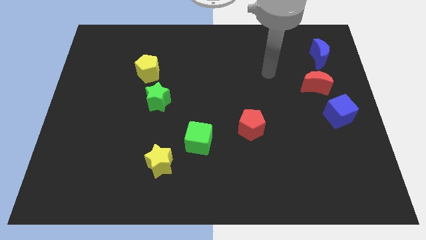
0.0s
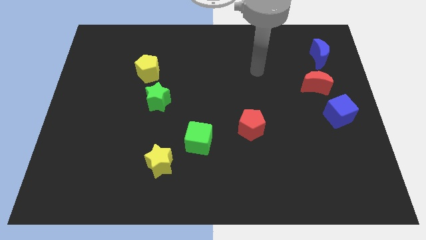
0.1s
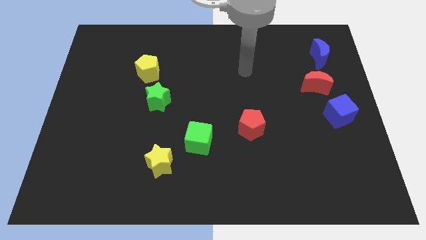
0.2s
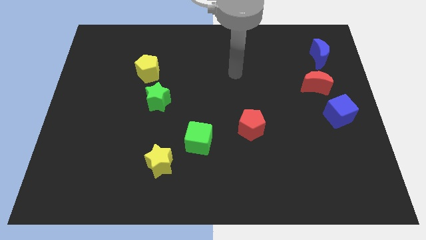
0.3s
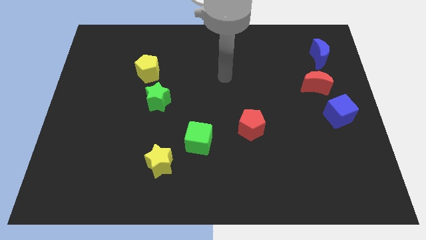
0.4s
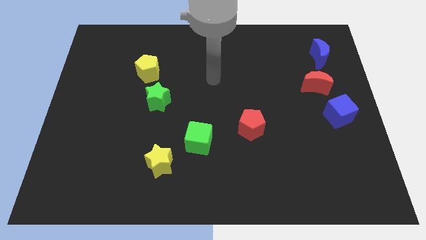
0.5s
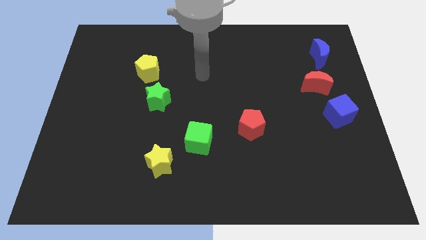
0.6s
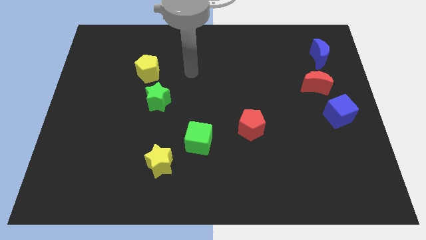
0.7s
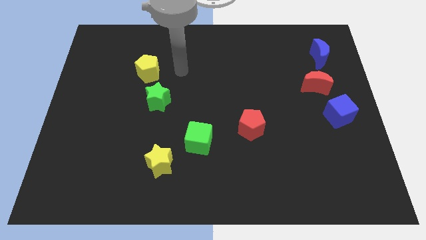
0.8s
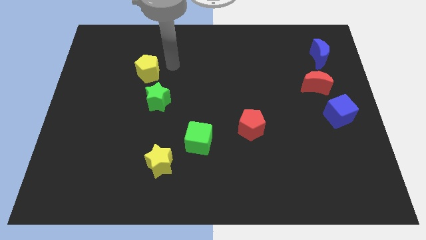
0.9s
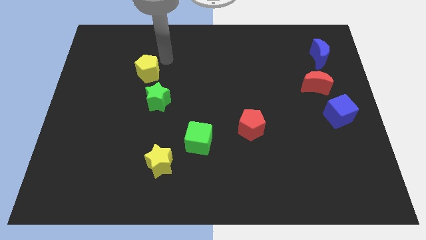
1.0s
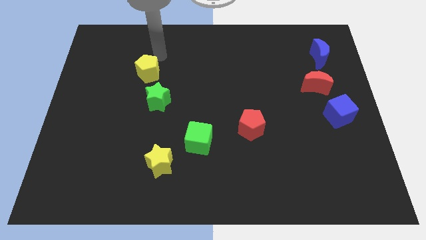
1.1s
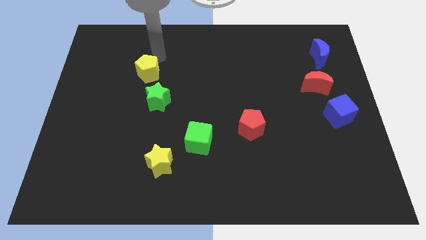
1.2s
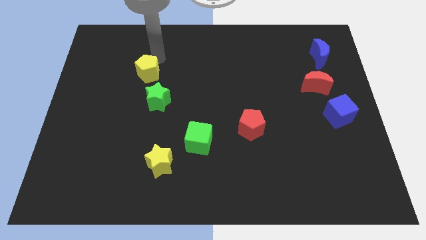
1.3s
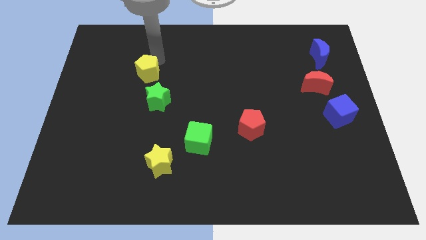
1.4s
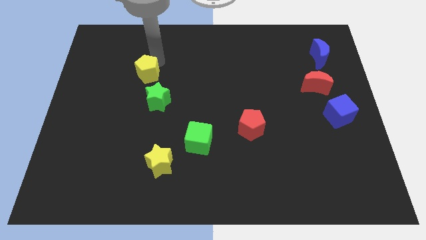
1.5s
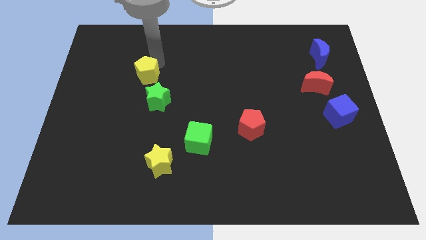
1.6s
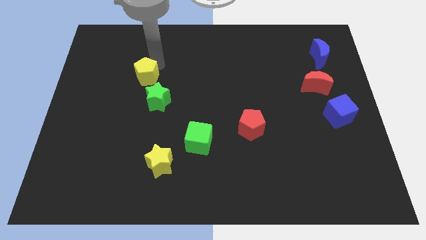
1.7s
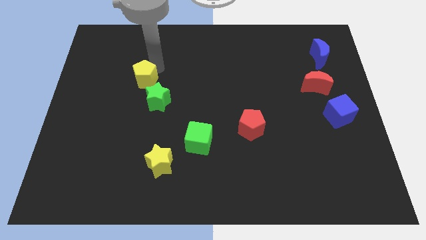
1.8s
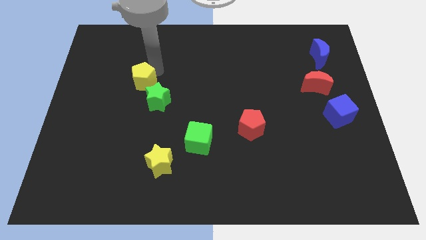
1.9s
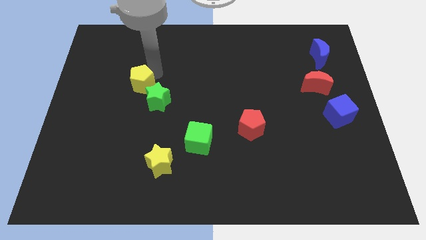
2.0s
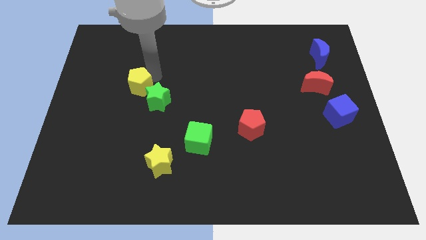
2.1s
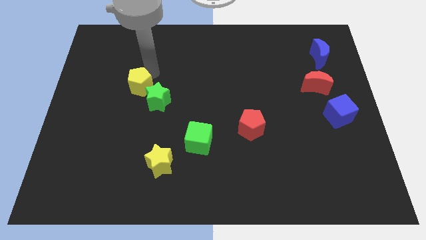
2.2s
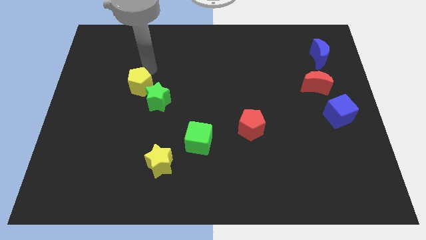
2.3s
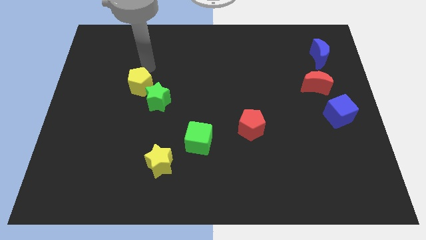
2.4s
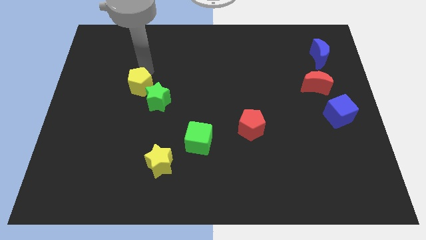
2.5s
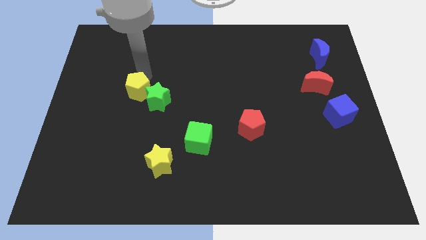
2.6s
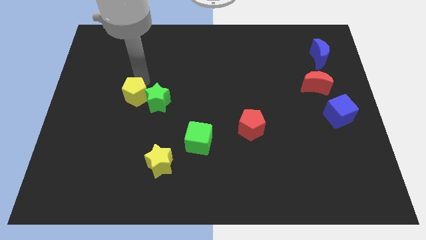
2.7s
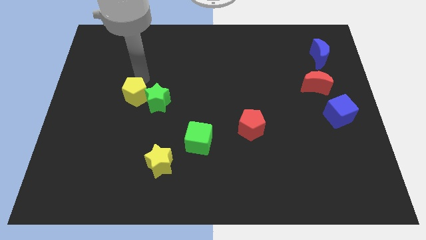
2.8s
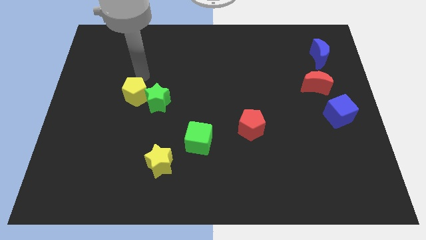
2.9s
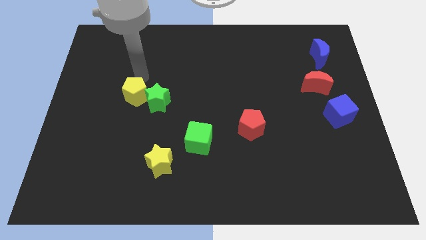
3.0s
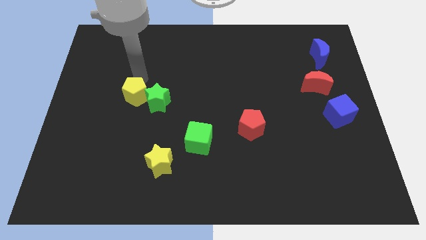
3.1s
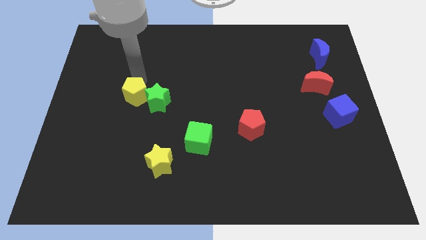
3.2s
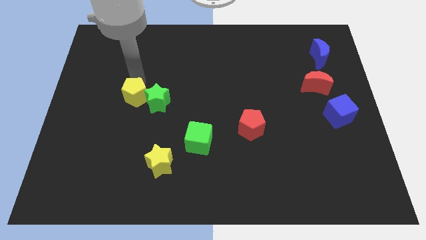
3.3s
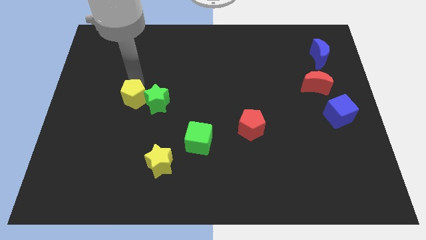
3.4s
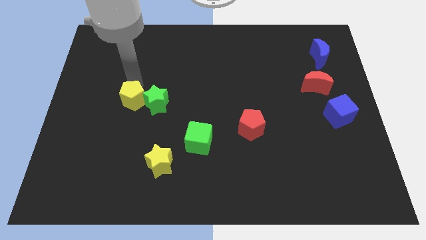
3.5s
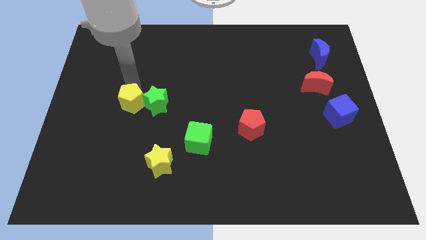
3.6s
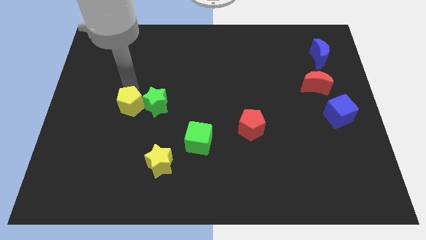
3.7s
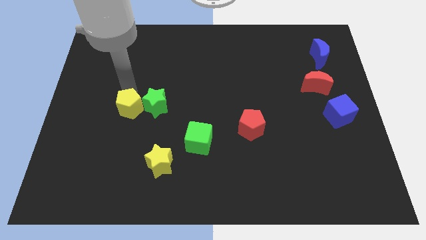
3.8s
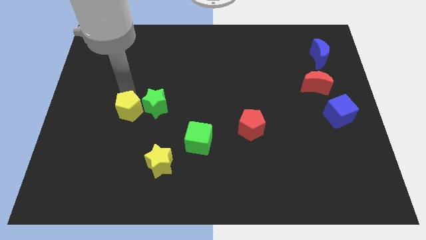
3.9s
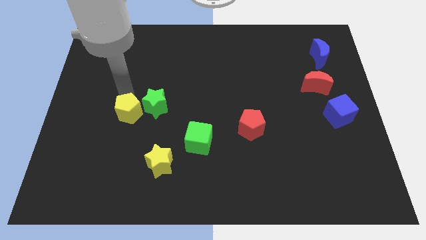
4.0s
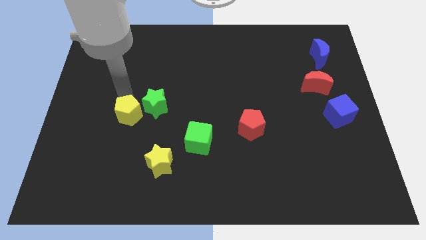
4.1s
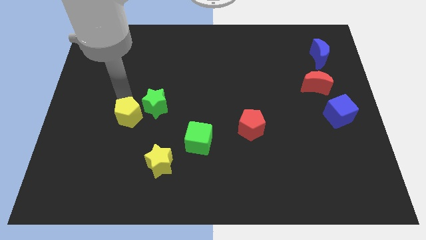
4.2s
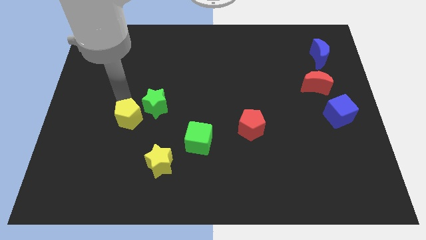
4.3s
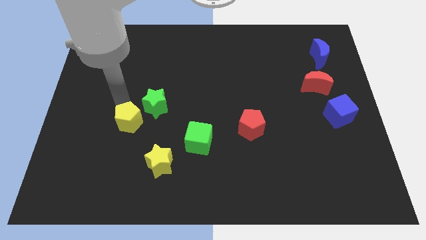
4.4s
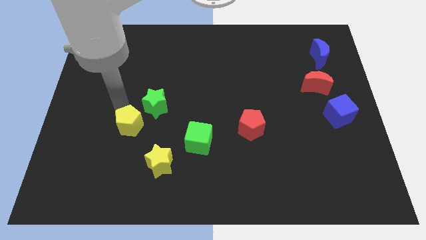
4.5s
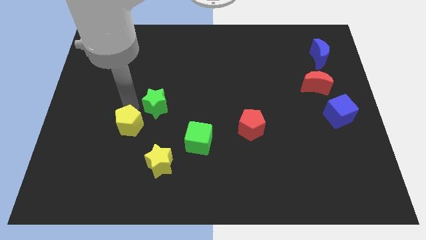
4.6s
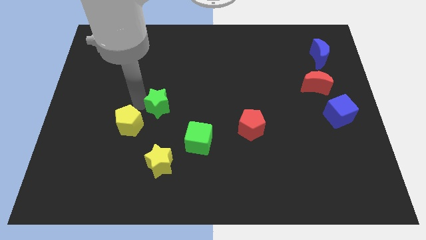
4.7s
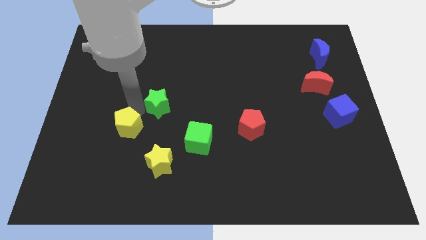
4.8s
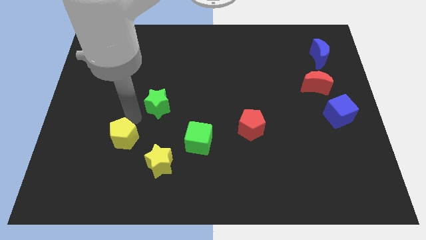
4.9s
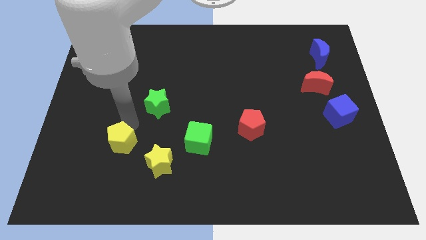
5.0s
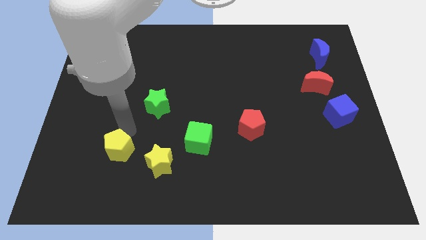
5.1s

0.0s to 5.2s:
slide the yellow pentagon to the left side of the yellow star

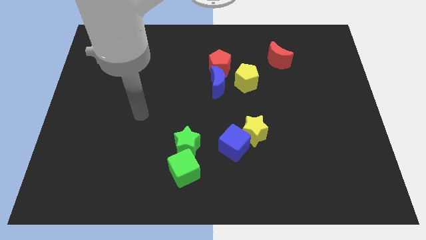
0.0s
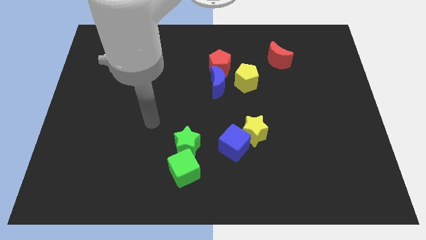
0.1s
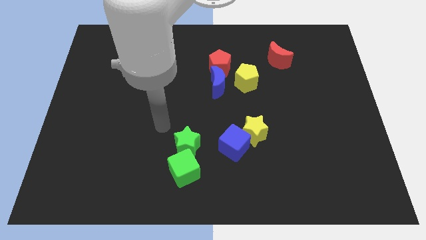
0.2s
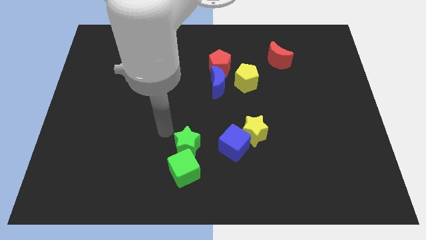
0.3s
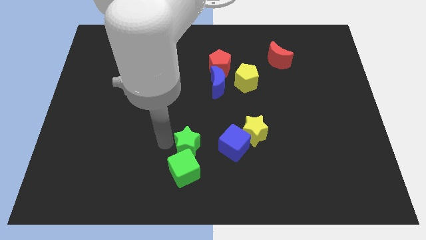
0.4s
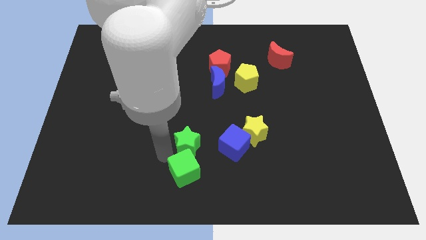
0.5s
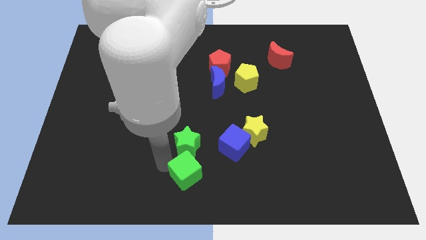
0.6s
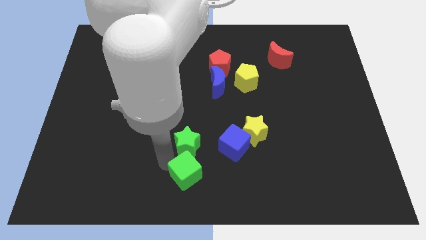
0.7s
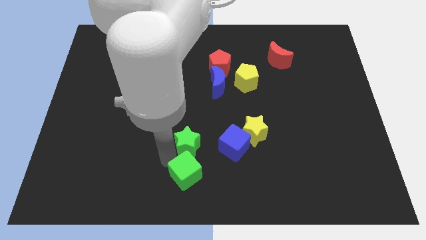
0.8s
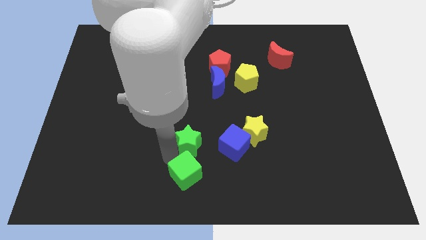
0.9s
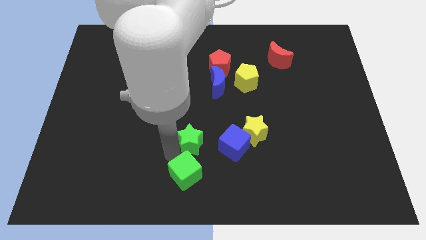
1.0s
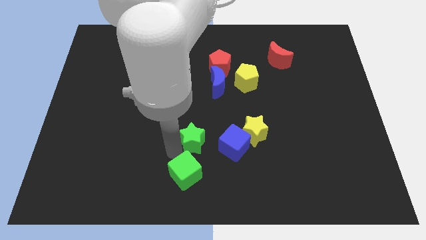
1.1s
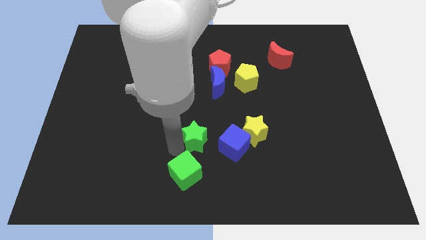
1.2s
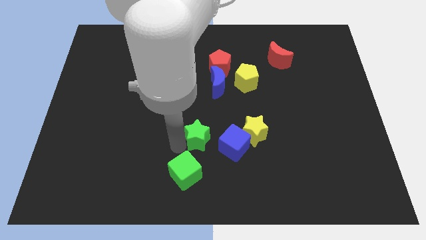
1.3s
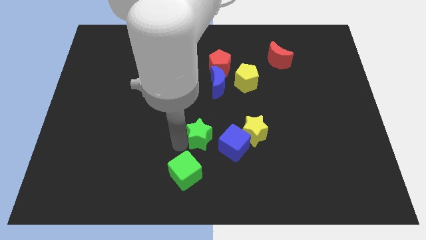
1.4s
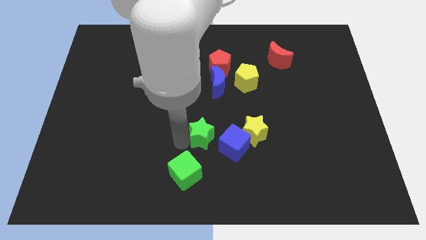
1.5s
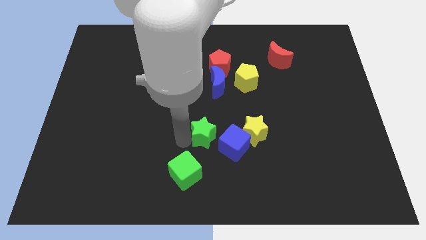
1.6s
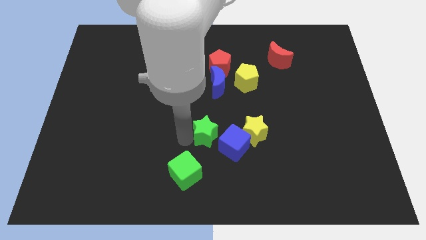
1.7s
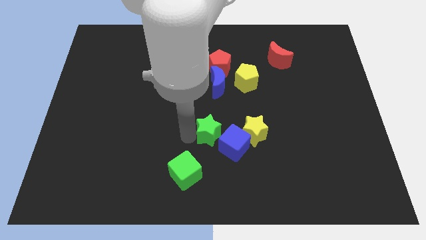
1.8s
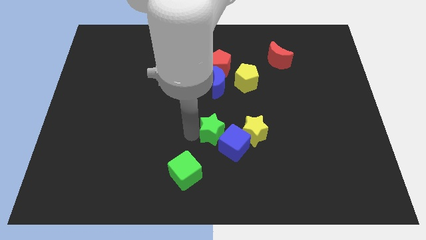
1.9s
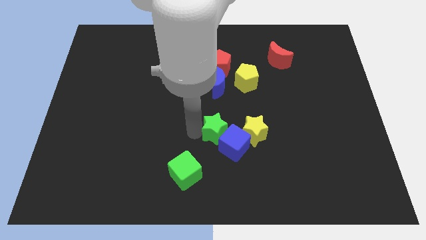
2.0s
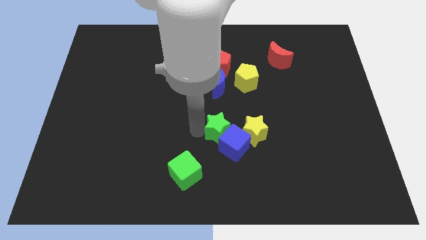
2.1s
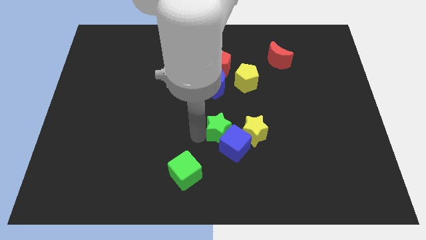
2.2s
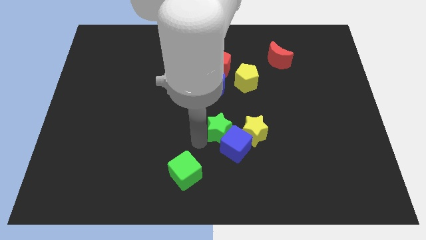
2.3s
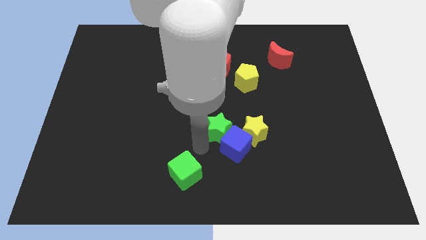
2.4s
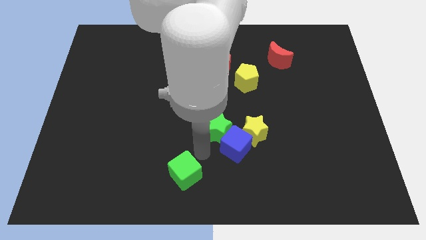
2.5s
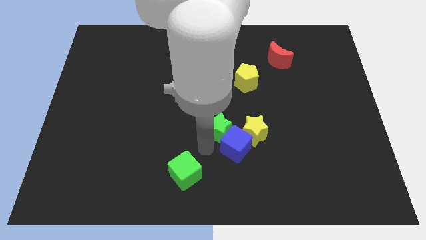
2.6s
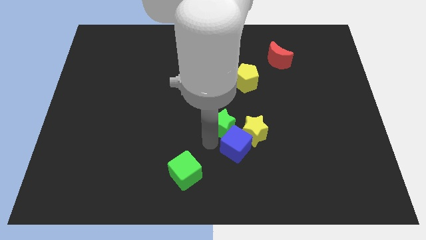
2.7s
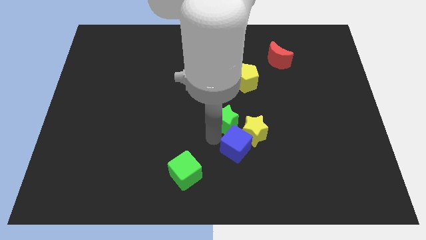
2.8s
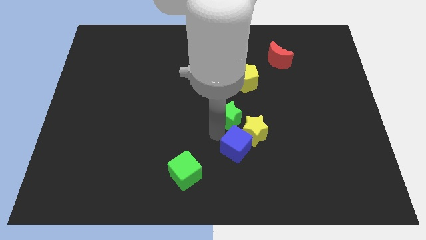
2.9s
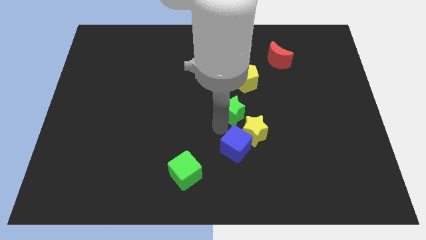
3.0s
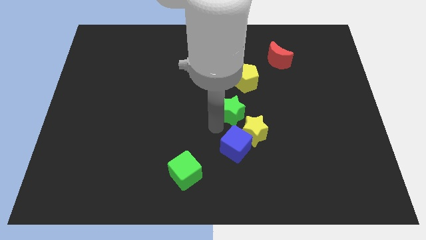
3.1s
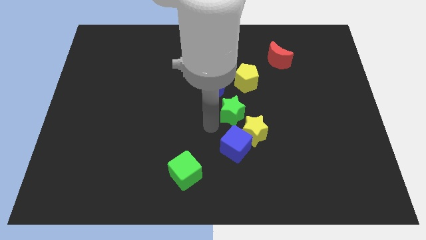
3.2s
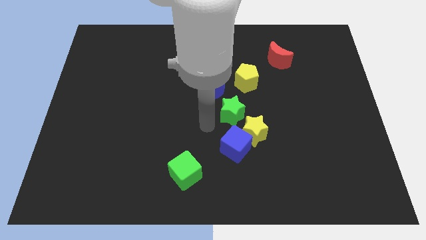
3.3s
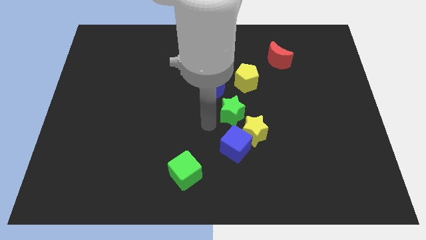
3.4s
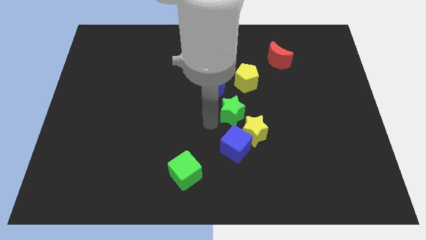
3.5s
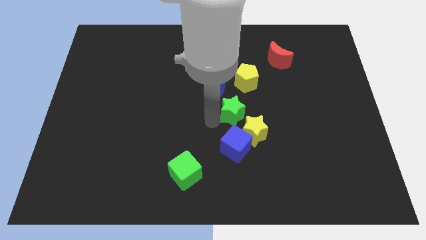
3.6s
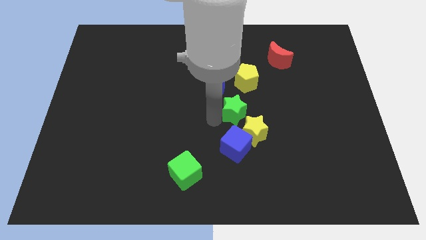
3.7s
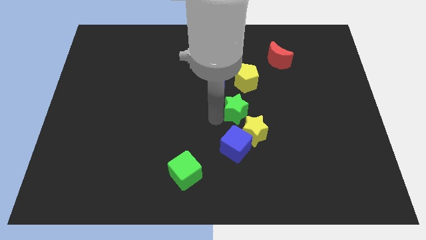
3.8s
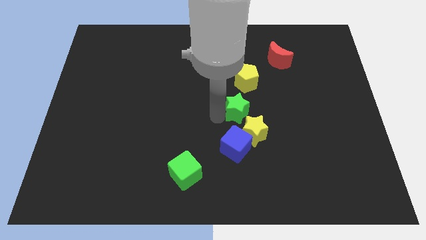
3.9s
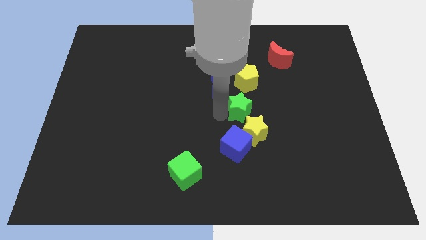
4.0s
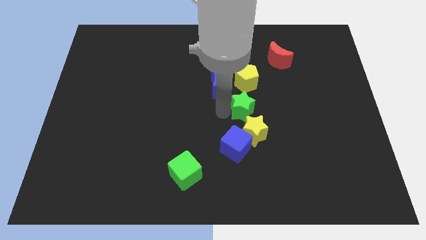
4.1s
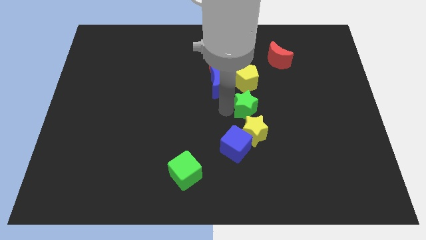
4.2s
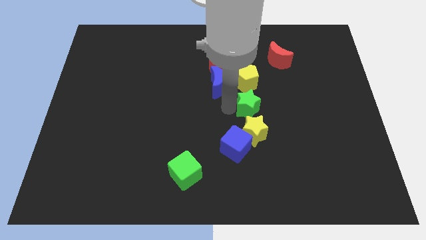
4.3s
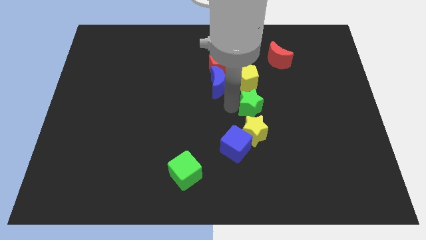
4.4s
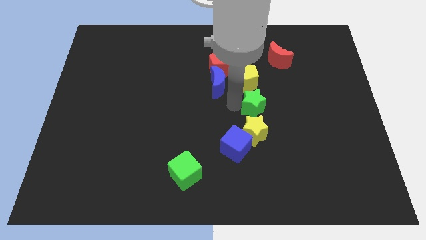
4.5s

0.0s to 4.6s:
move the green star diagonally down and to the right of the yellow pentagon
